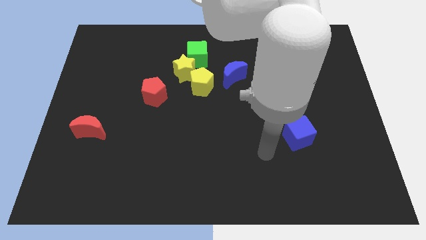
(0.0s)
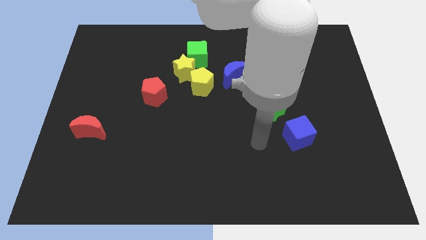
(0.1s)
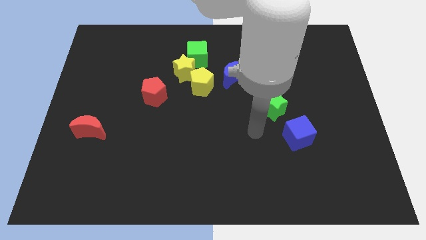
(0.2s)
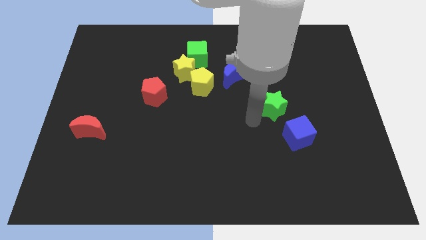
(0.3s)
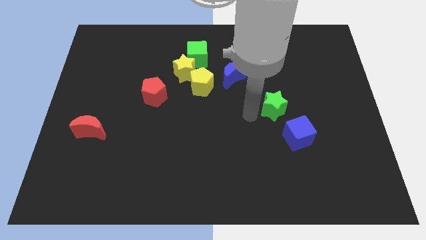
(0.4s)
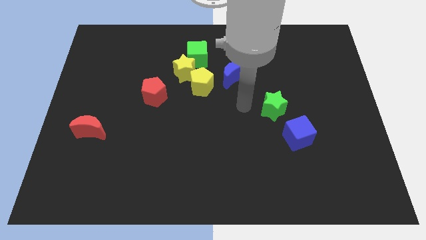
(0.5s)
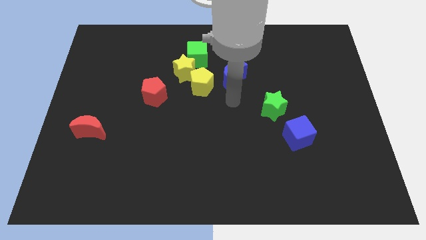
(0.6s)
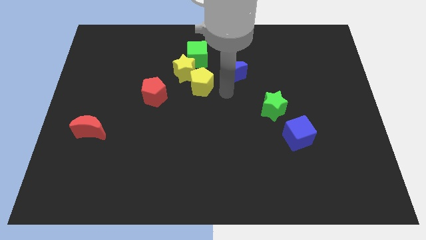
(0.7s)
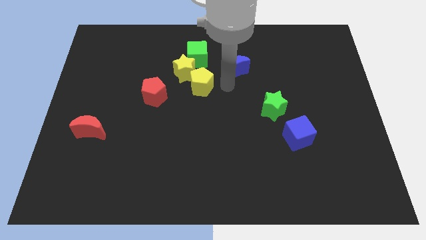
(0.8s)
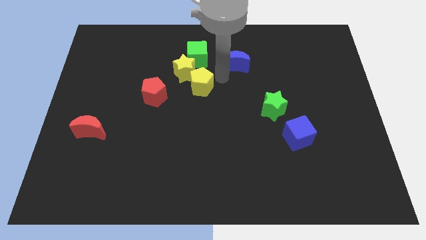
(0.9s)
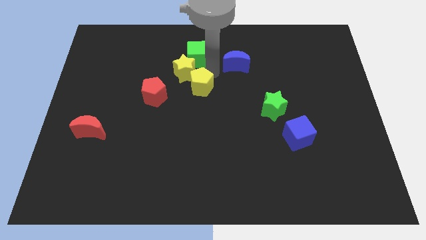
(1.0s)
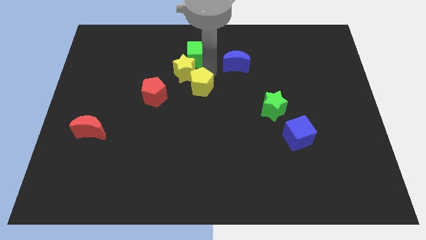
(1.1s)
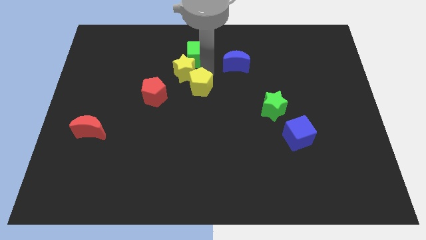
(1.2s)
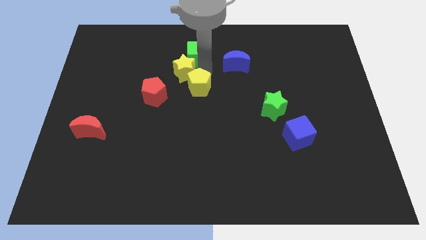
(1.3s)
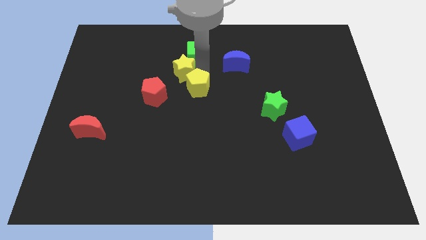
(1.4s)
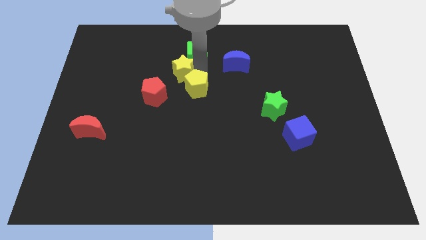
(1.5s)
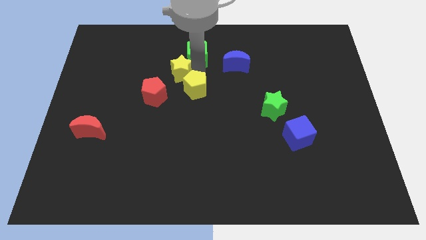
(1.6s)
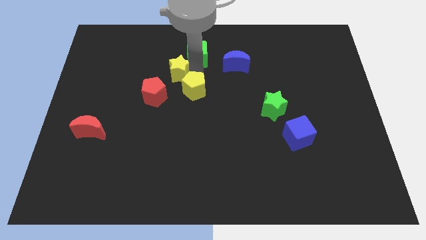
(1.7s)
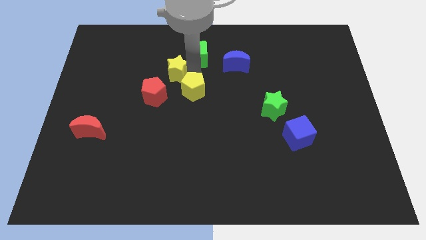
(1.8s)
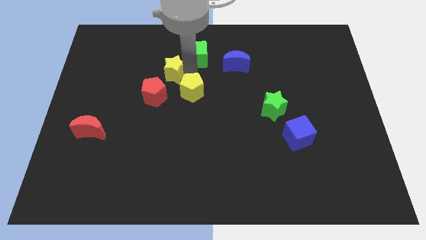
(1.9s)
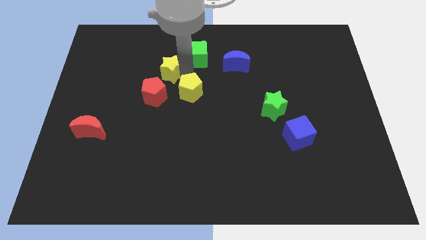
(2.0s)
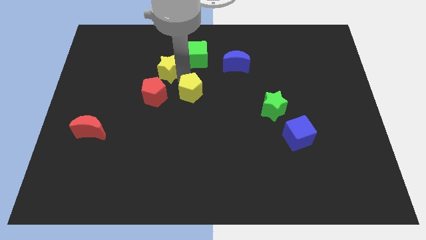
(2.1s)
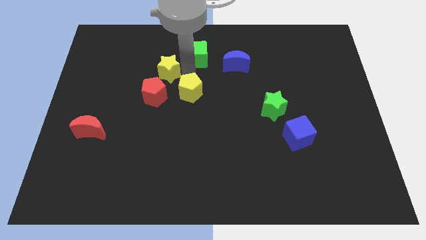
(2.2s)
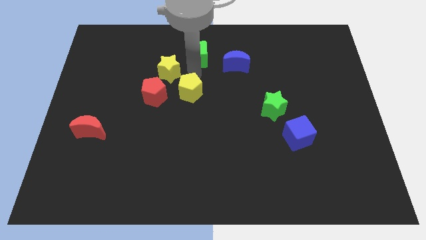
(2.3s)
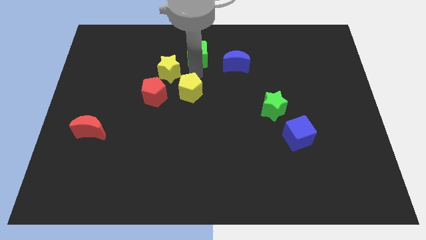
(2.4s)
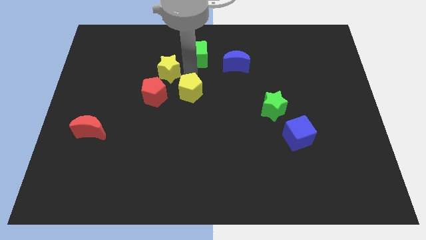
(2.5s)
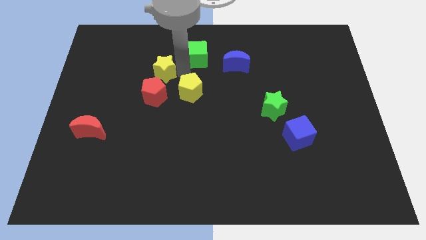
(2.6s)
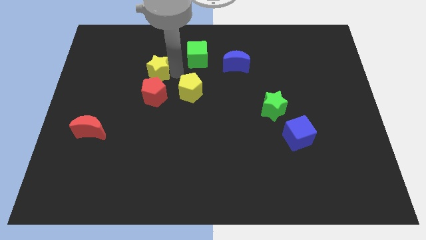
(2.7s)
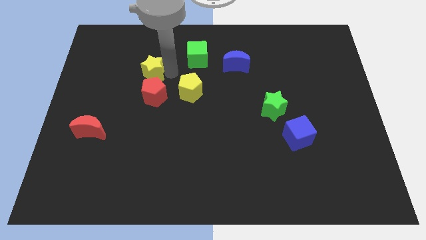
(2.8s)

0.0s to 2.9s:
pull the yellow star apart from the green cube and yellow pentagon

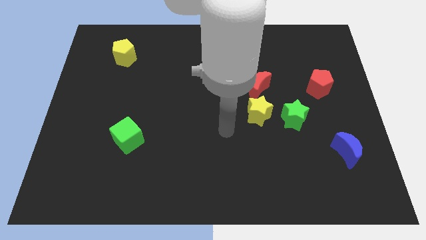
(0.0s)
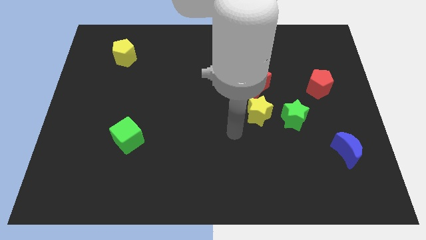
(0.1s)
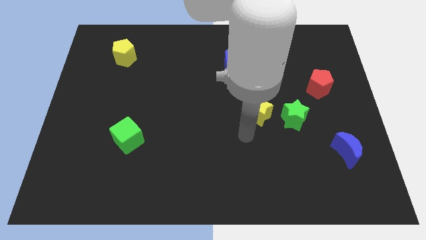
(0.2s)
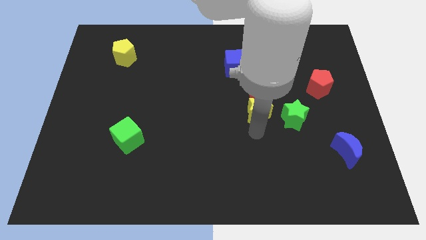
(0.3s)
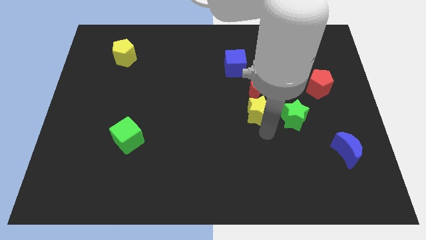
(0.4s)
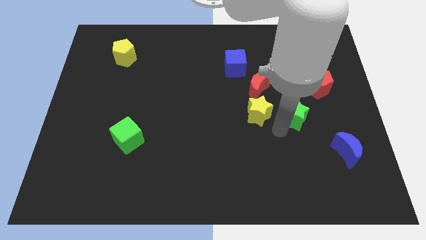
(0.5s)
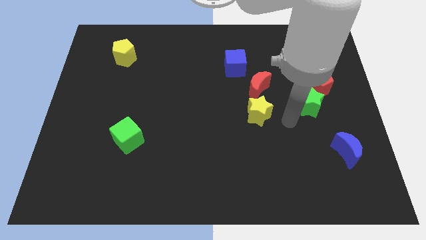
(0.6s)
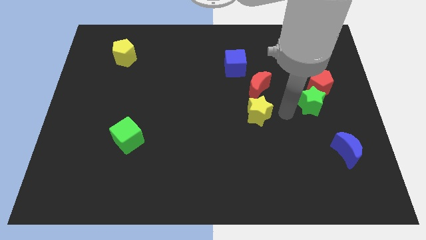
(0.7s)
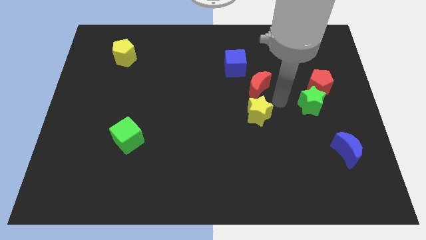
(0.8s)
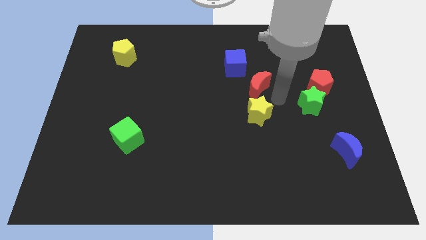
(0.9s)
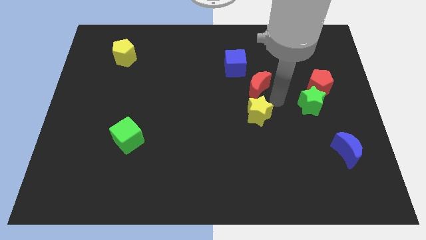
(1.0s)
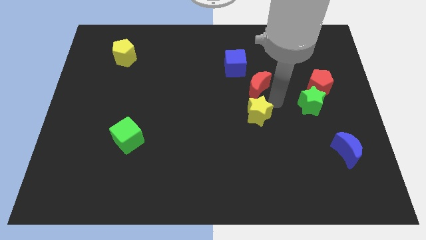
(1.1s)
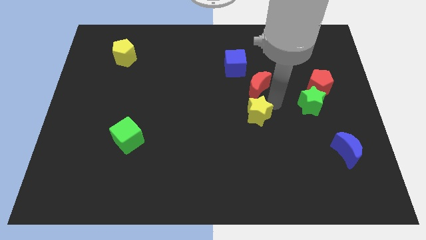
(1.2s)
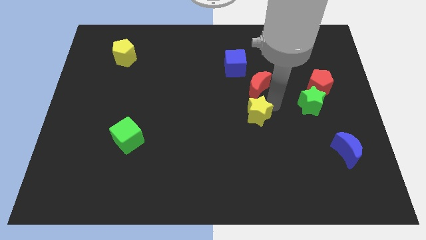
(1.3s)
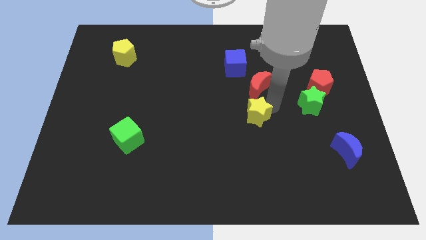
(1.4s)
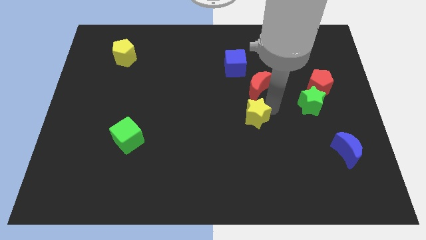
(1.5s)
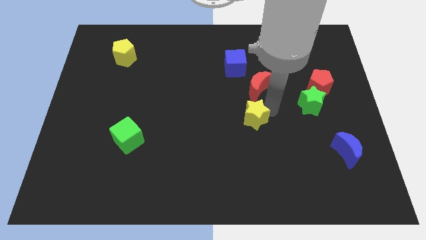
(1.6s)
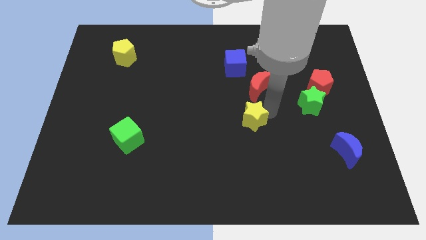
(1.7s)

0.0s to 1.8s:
move the yellow star away from the red moon and green star

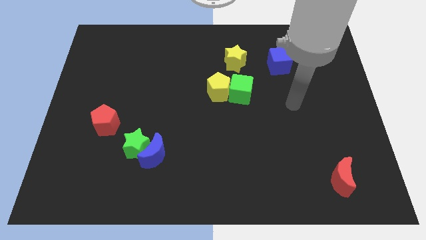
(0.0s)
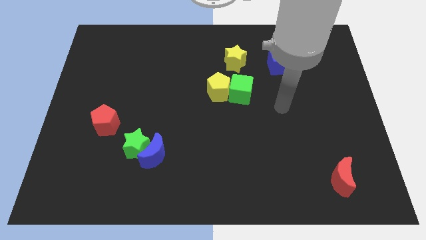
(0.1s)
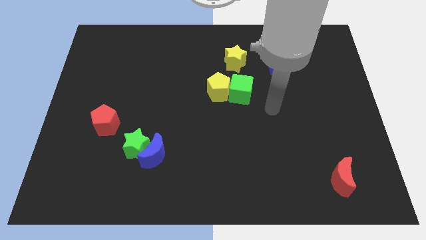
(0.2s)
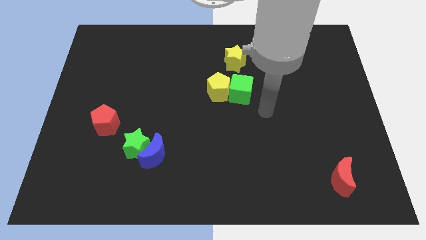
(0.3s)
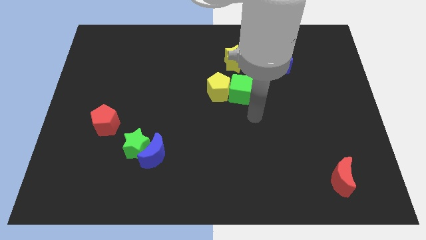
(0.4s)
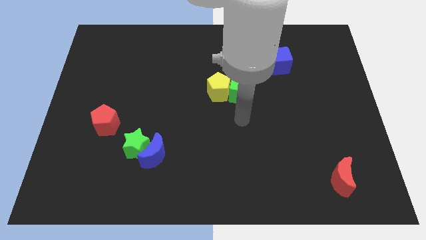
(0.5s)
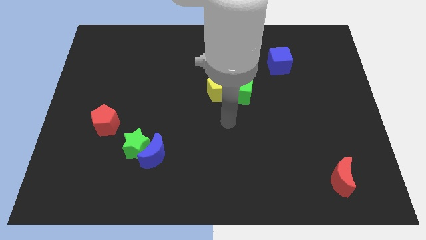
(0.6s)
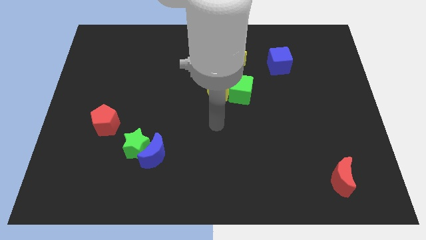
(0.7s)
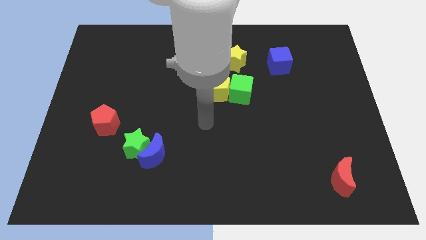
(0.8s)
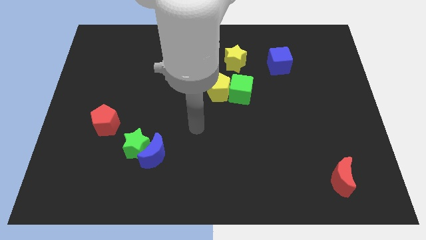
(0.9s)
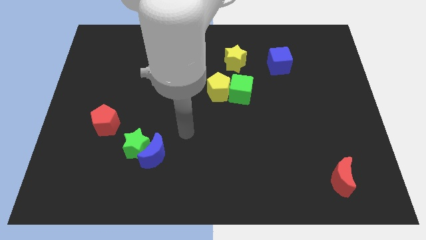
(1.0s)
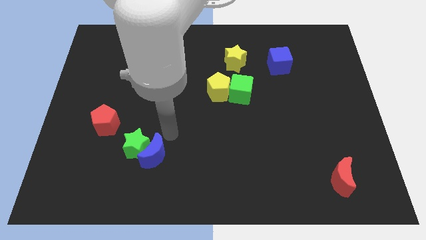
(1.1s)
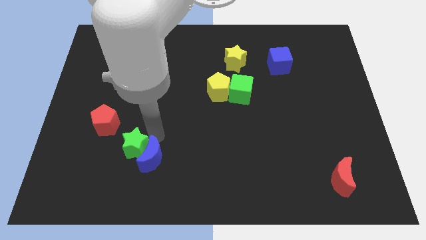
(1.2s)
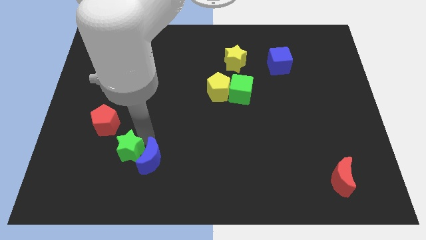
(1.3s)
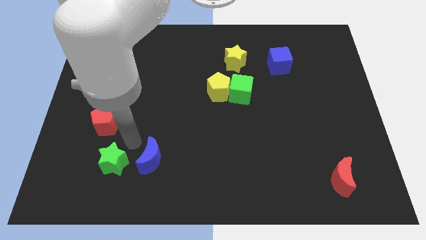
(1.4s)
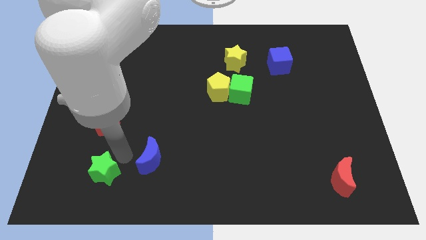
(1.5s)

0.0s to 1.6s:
pull the blue moon apart from the green star

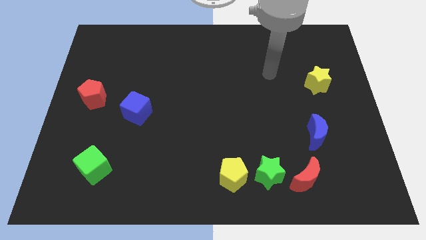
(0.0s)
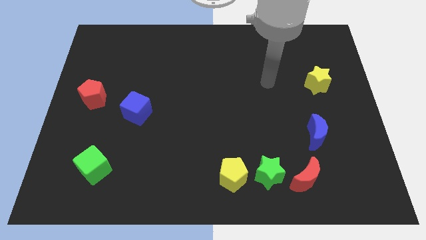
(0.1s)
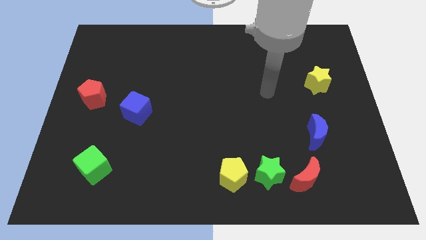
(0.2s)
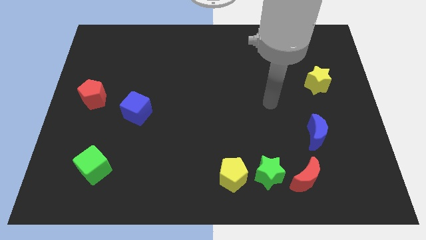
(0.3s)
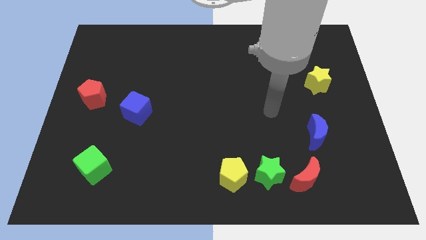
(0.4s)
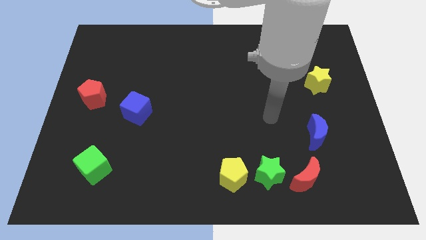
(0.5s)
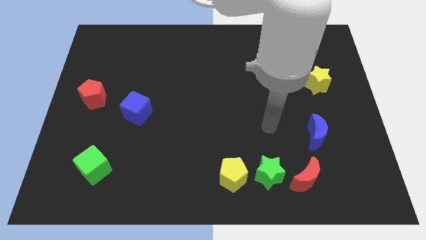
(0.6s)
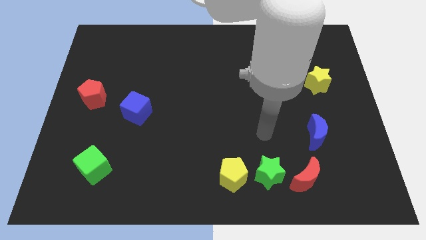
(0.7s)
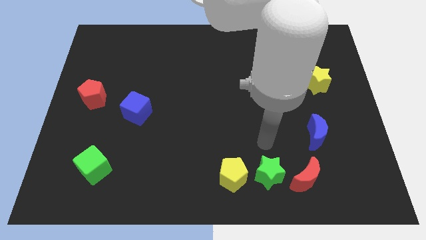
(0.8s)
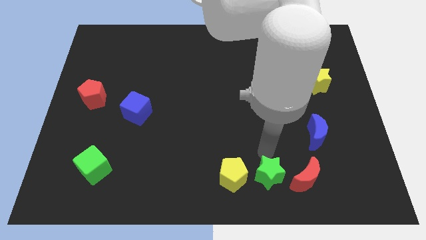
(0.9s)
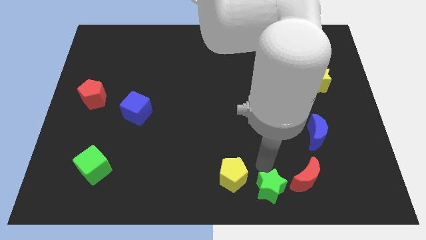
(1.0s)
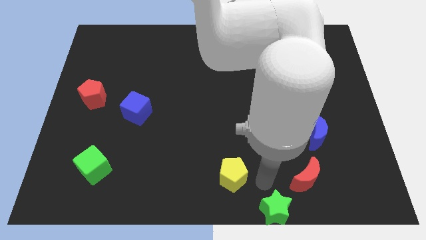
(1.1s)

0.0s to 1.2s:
move the yellow pentagon away from the green star

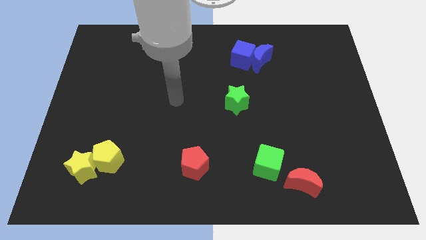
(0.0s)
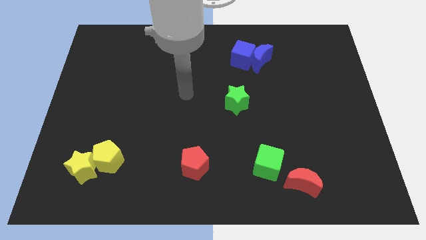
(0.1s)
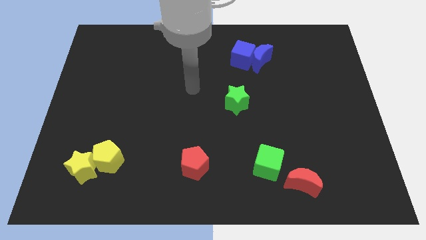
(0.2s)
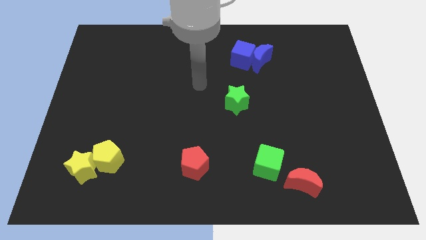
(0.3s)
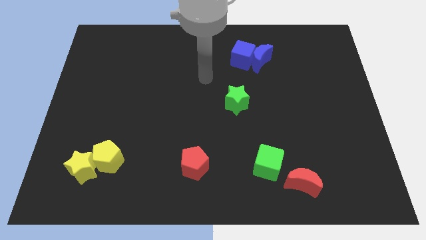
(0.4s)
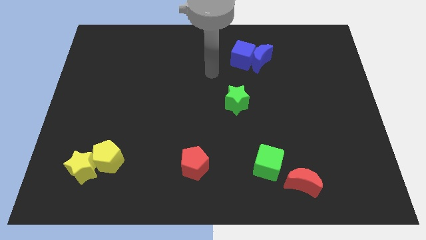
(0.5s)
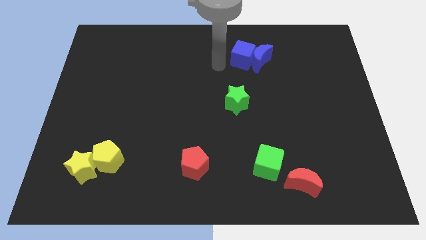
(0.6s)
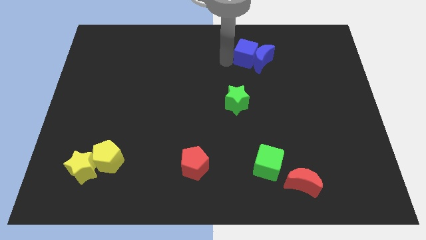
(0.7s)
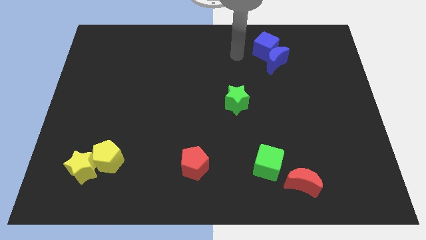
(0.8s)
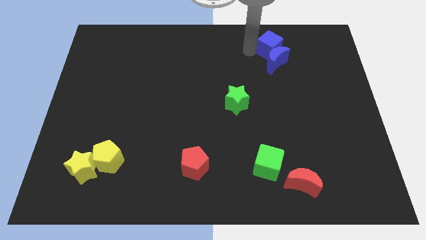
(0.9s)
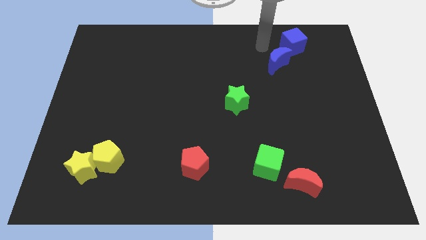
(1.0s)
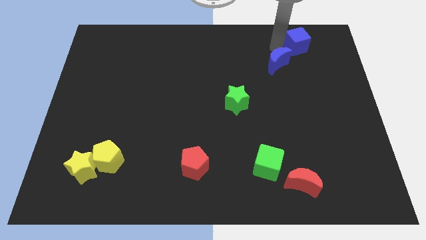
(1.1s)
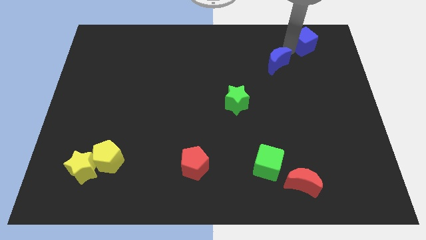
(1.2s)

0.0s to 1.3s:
separate the blue moon from the blue cube

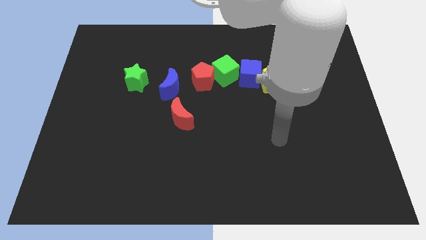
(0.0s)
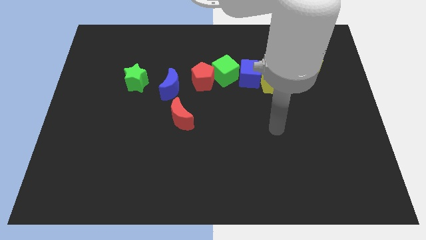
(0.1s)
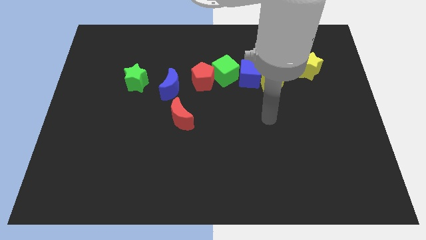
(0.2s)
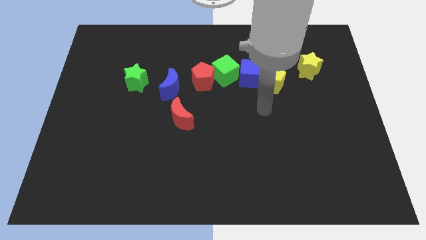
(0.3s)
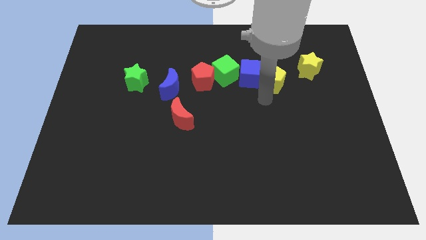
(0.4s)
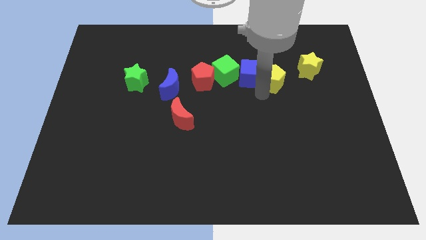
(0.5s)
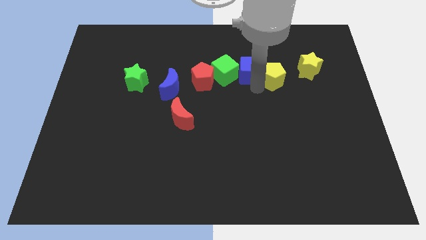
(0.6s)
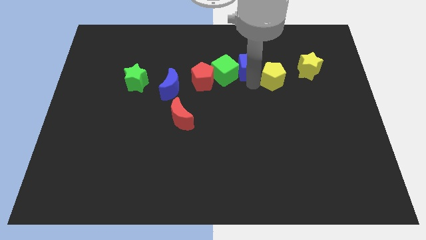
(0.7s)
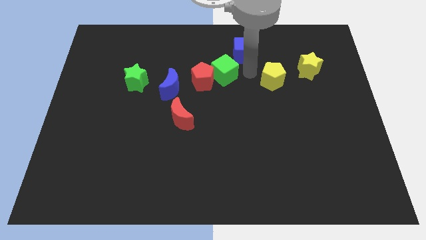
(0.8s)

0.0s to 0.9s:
separate the yellow pentagon from the blue cube
